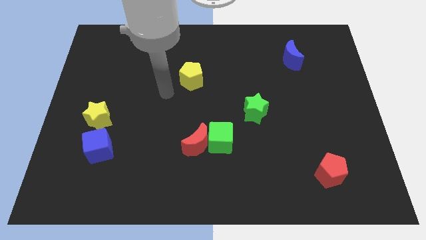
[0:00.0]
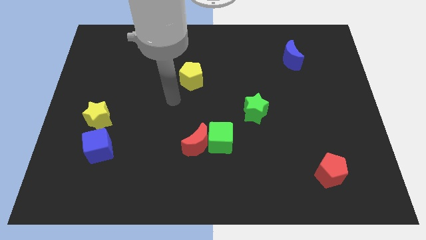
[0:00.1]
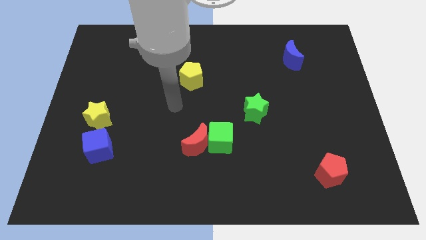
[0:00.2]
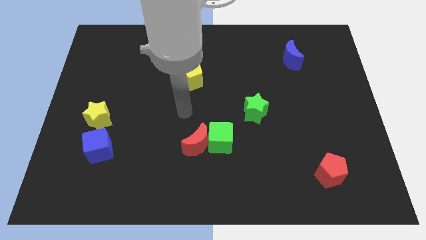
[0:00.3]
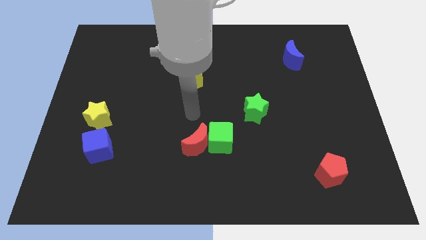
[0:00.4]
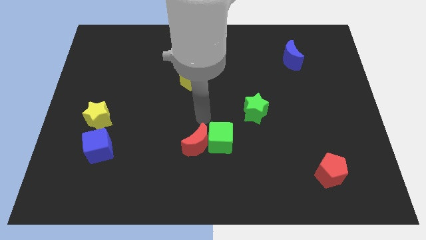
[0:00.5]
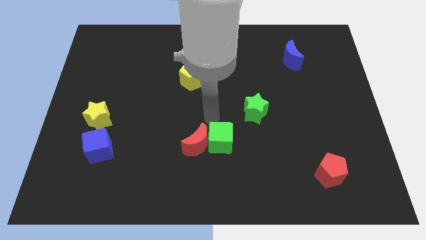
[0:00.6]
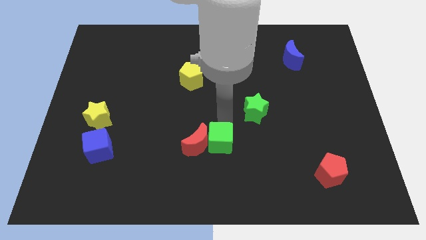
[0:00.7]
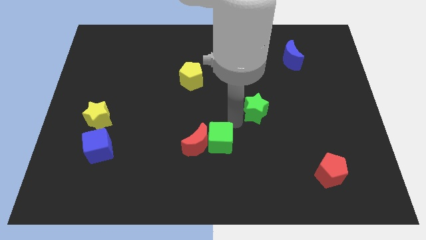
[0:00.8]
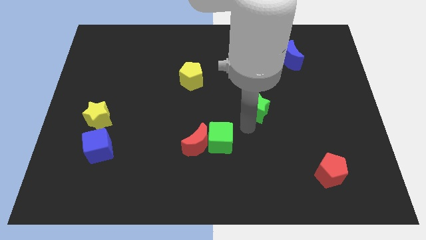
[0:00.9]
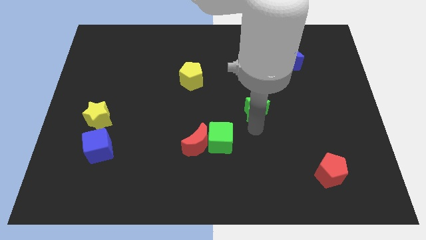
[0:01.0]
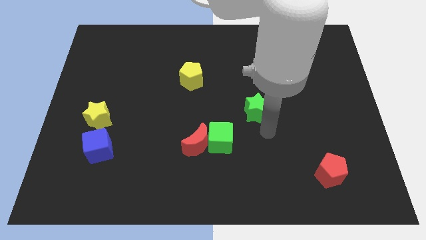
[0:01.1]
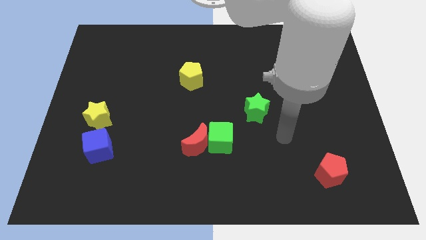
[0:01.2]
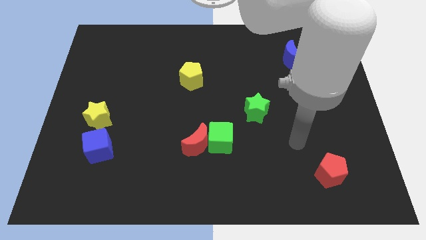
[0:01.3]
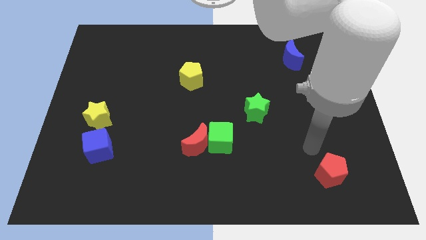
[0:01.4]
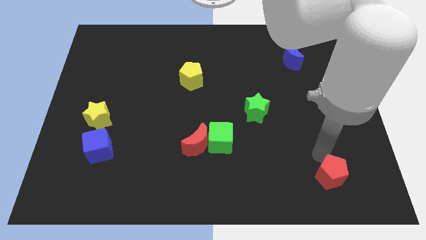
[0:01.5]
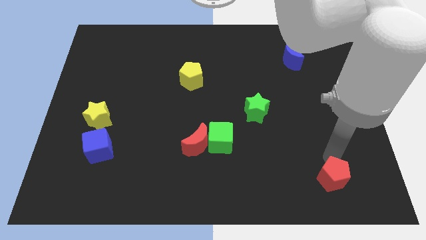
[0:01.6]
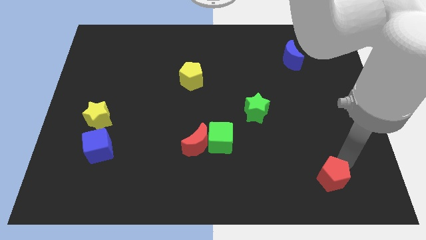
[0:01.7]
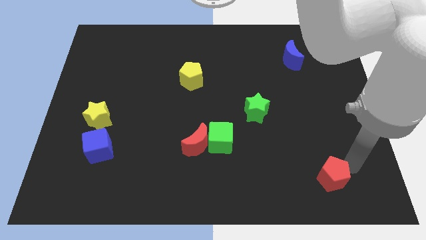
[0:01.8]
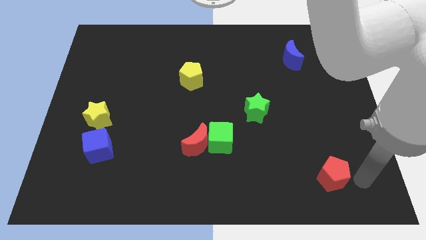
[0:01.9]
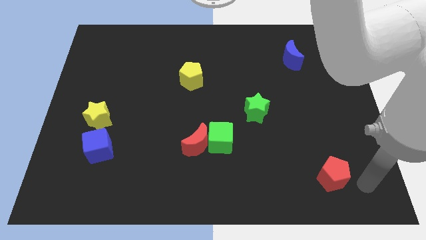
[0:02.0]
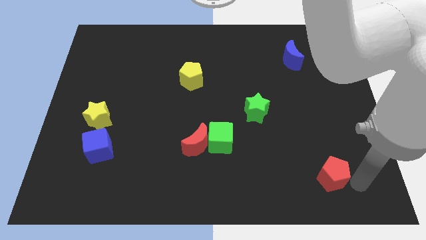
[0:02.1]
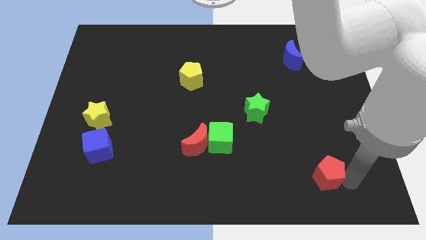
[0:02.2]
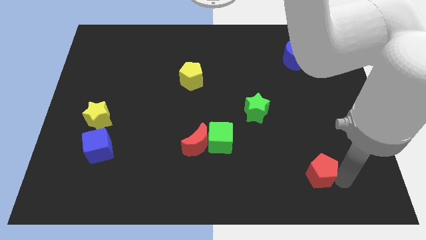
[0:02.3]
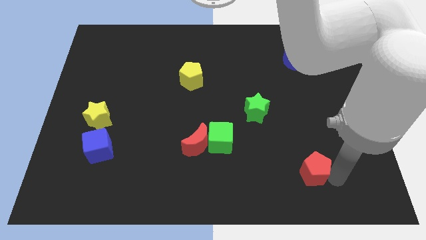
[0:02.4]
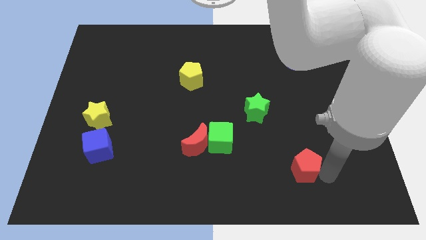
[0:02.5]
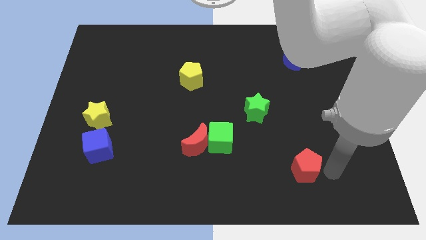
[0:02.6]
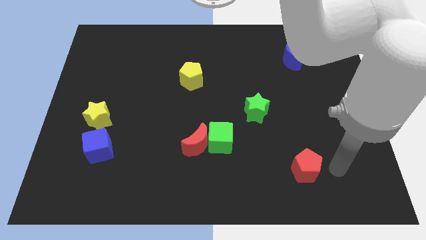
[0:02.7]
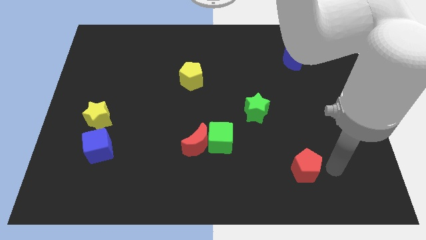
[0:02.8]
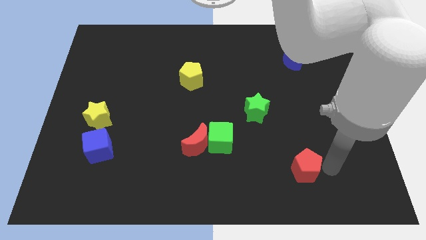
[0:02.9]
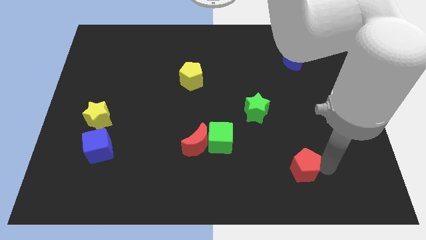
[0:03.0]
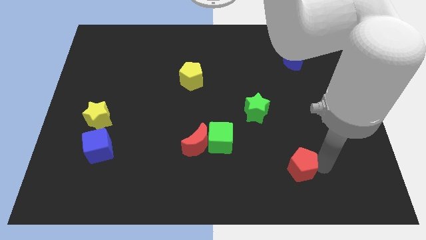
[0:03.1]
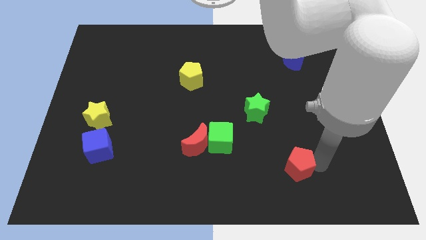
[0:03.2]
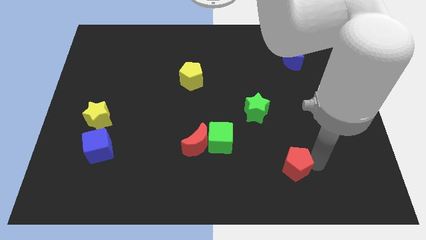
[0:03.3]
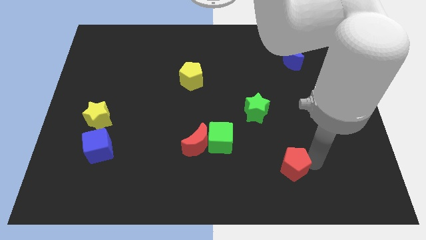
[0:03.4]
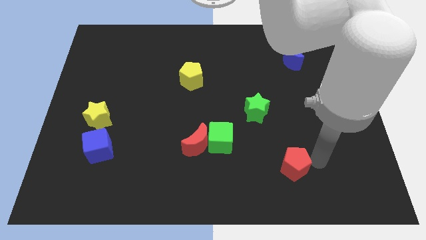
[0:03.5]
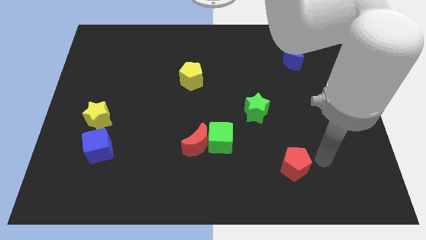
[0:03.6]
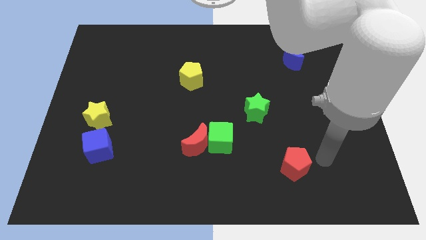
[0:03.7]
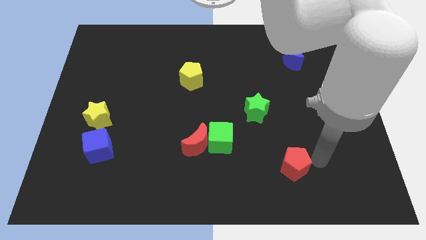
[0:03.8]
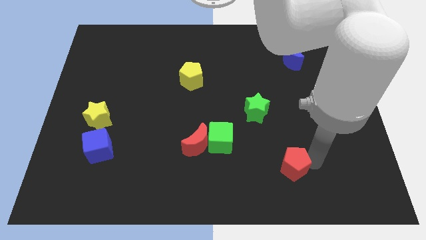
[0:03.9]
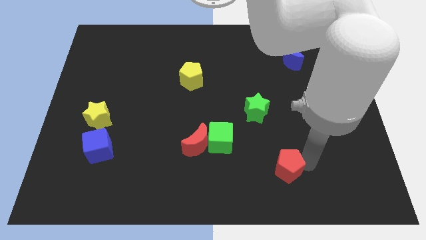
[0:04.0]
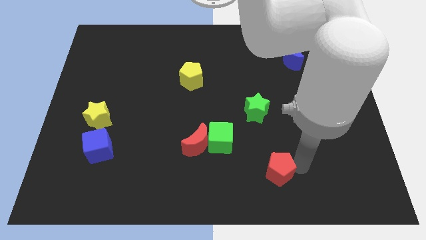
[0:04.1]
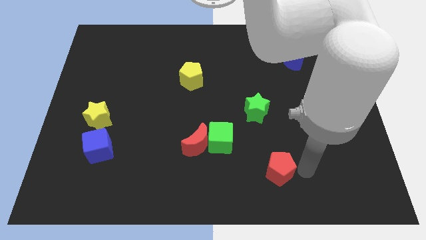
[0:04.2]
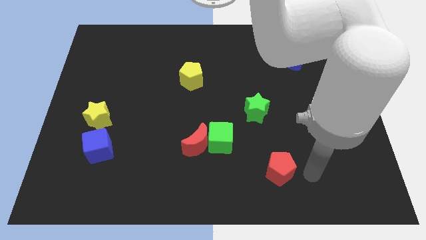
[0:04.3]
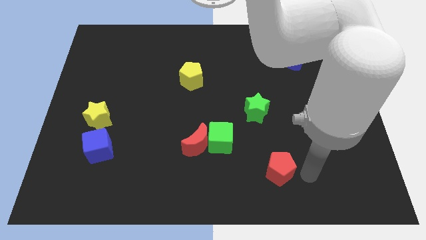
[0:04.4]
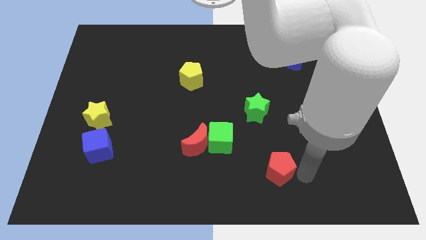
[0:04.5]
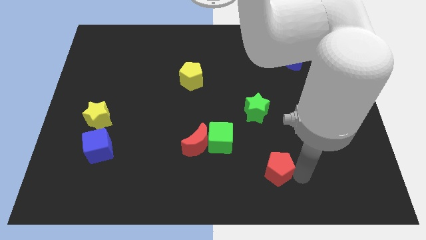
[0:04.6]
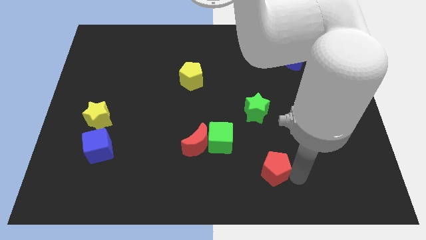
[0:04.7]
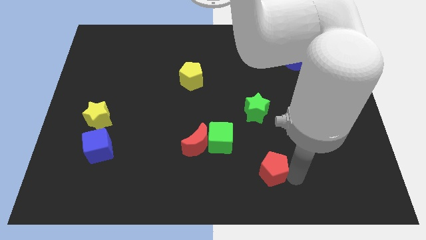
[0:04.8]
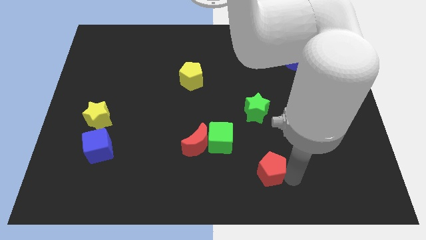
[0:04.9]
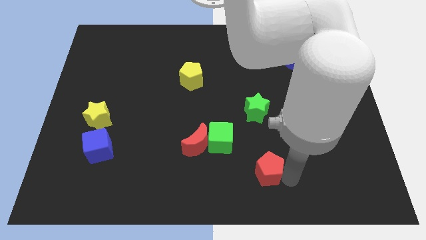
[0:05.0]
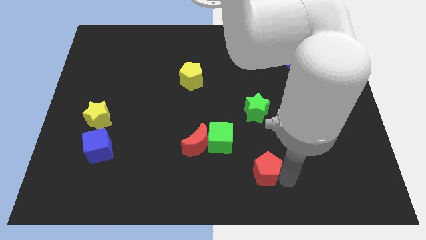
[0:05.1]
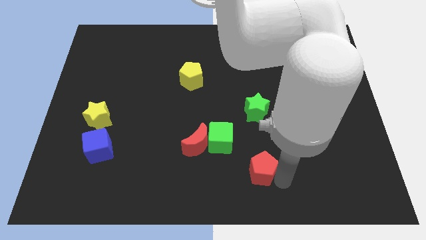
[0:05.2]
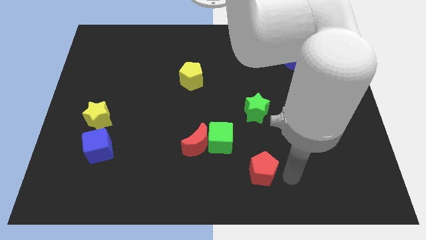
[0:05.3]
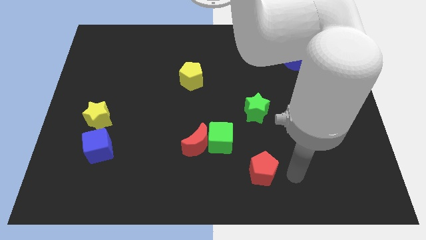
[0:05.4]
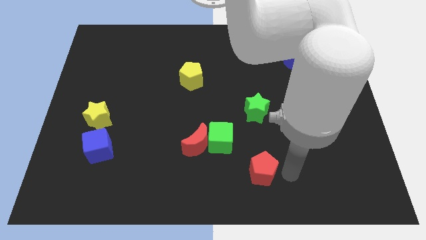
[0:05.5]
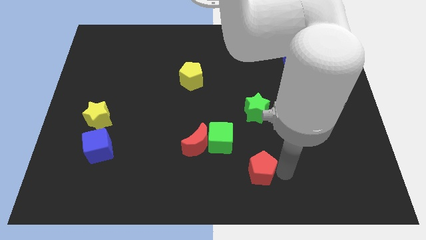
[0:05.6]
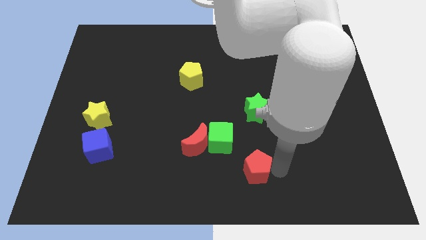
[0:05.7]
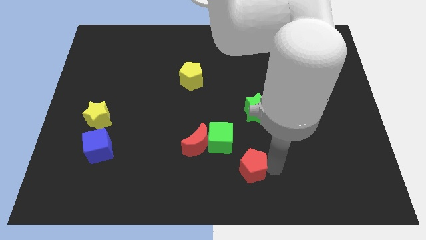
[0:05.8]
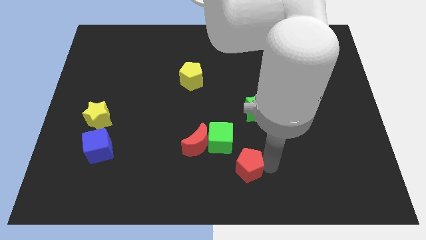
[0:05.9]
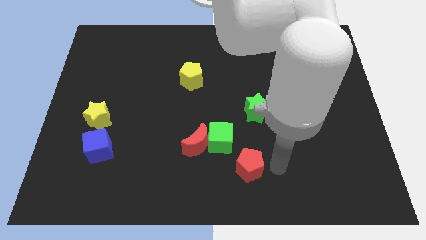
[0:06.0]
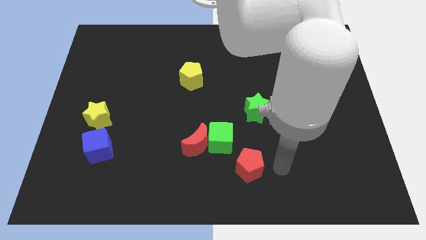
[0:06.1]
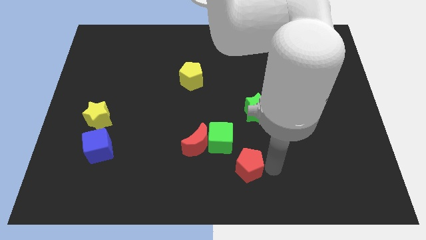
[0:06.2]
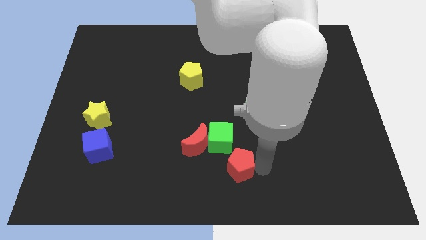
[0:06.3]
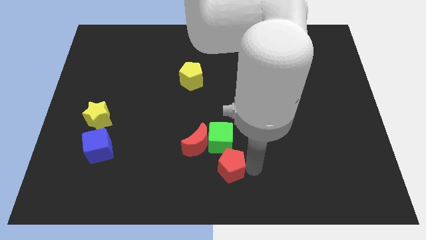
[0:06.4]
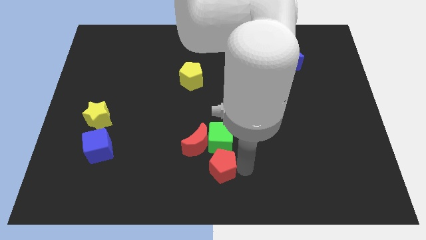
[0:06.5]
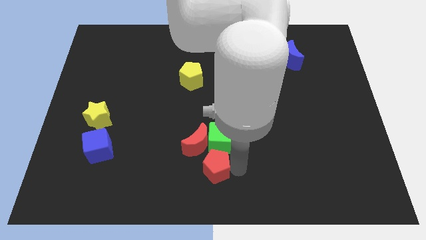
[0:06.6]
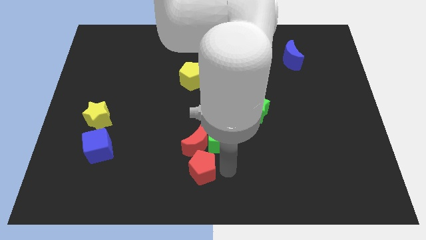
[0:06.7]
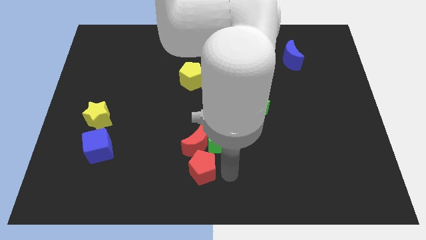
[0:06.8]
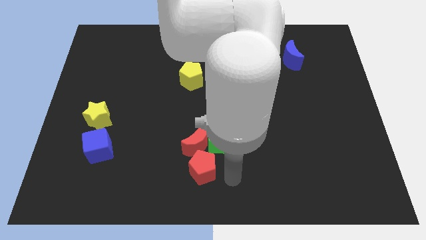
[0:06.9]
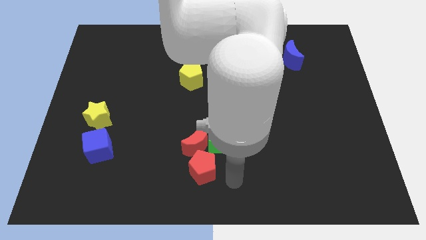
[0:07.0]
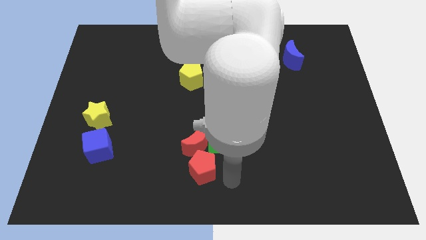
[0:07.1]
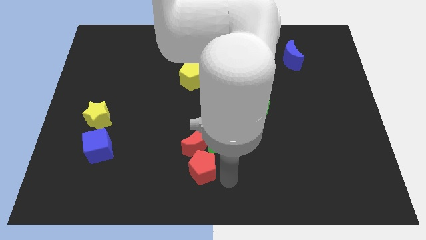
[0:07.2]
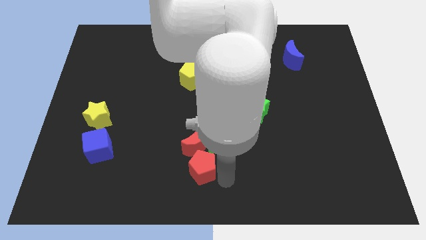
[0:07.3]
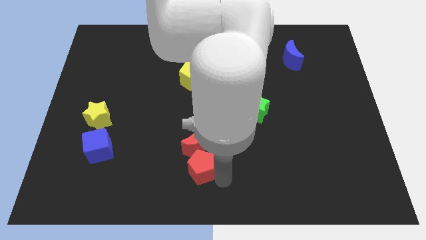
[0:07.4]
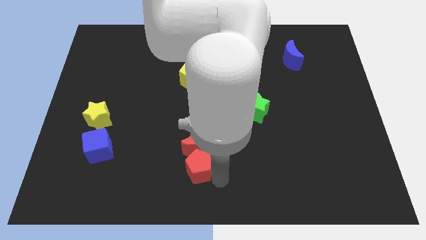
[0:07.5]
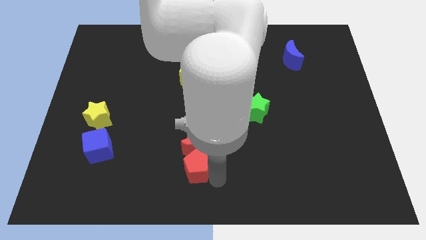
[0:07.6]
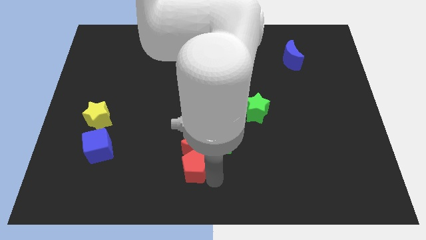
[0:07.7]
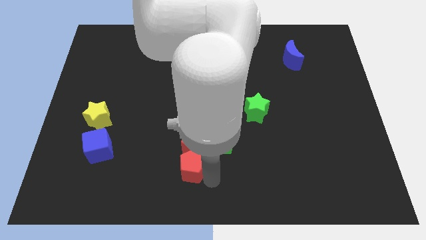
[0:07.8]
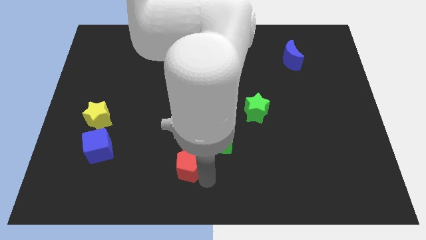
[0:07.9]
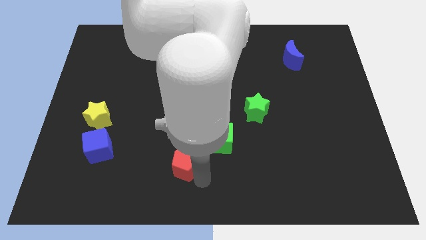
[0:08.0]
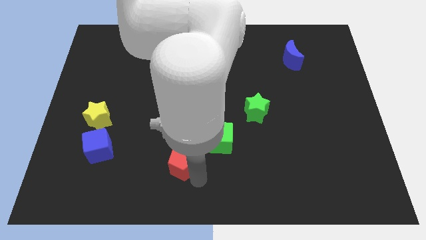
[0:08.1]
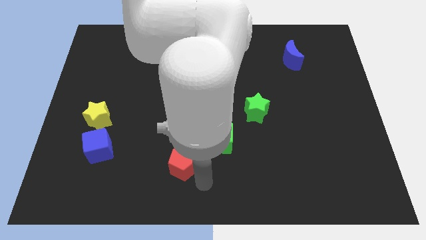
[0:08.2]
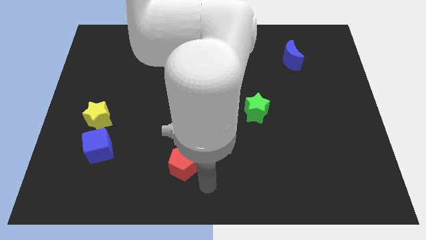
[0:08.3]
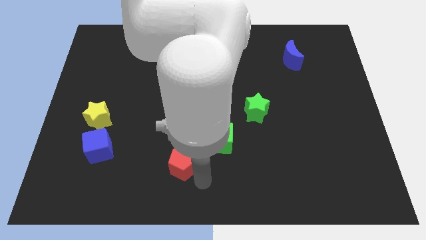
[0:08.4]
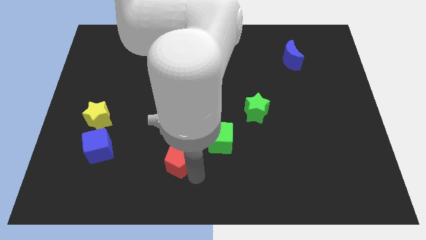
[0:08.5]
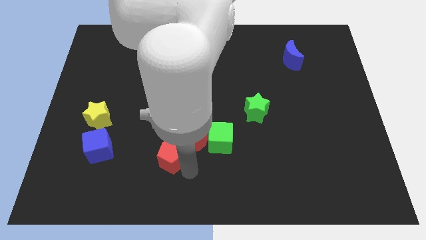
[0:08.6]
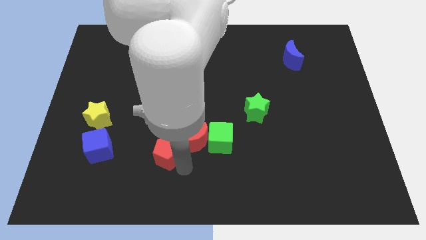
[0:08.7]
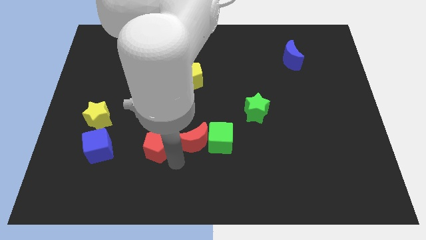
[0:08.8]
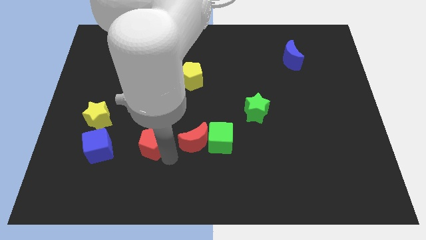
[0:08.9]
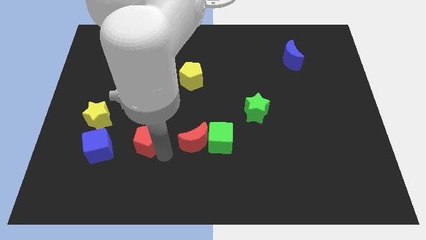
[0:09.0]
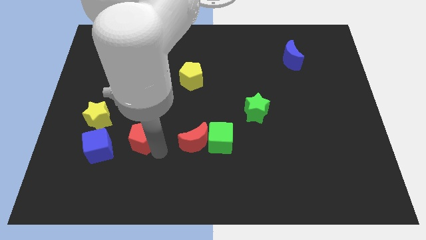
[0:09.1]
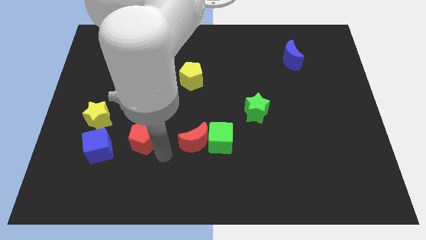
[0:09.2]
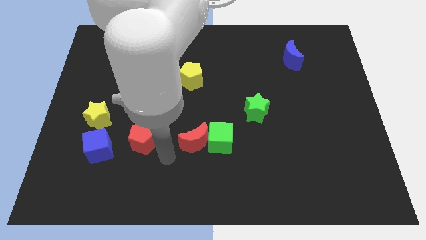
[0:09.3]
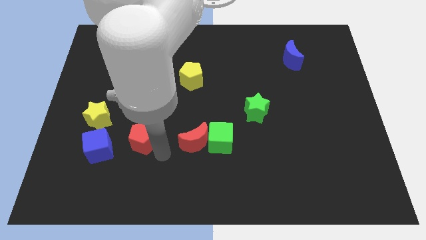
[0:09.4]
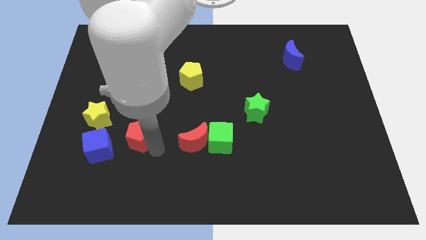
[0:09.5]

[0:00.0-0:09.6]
put the red pentagon to the top right of the blue cube
